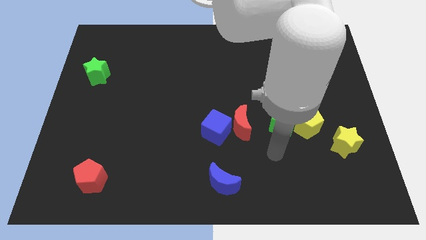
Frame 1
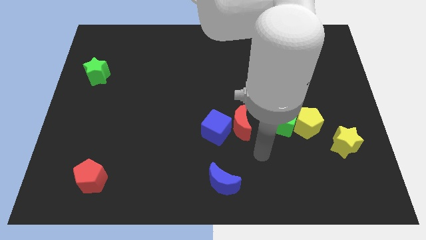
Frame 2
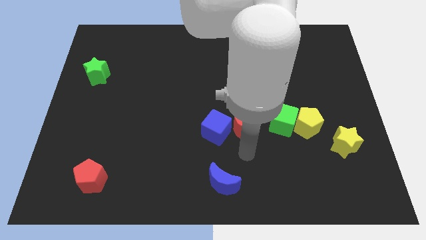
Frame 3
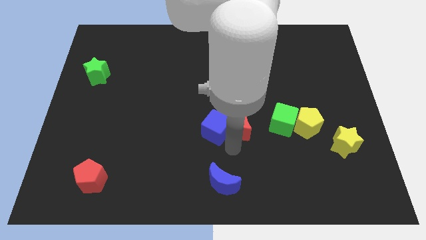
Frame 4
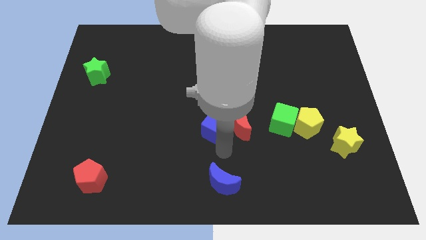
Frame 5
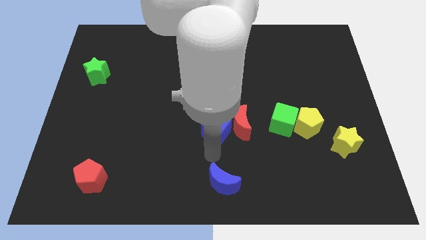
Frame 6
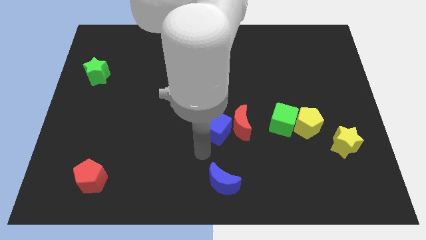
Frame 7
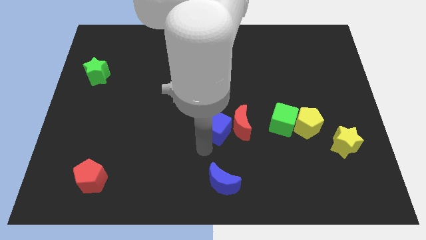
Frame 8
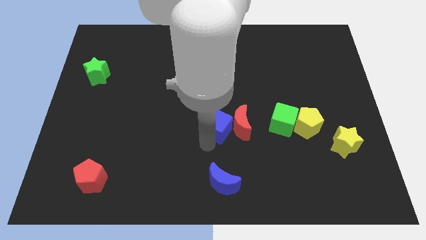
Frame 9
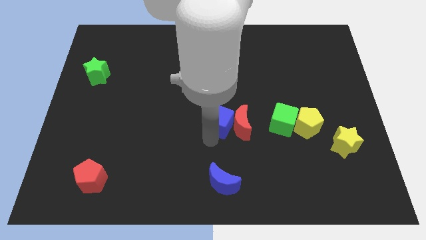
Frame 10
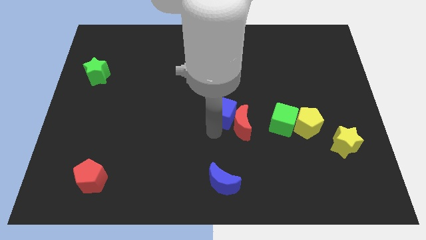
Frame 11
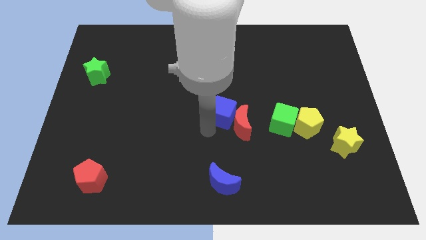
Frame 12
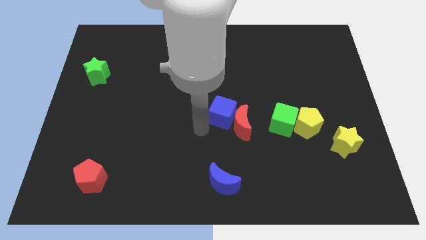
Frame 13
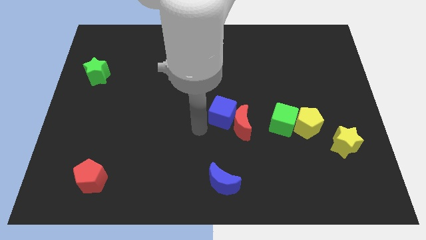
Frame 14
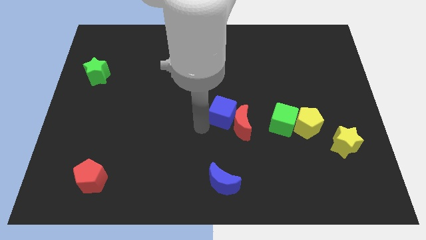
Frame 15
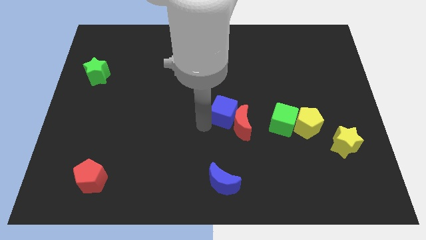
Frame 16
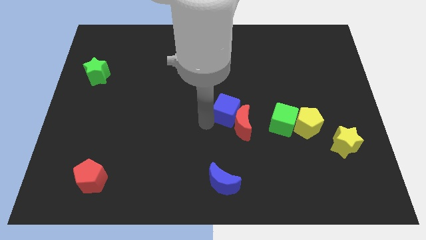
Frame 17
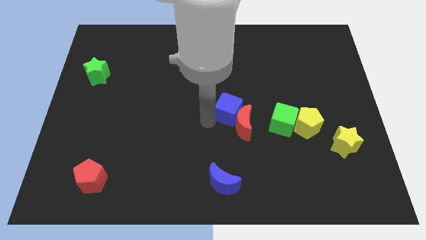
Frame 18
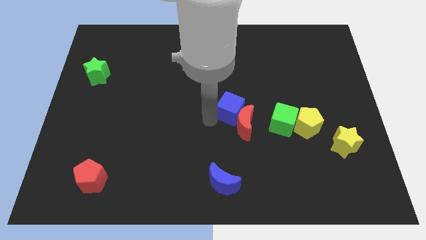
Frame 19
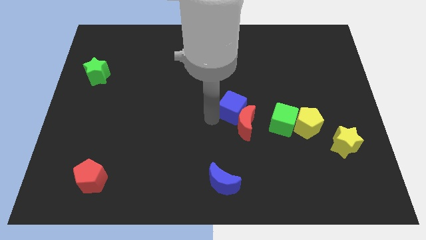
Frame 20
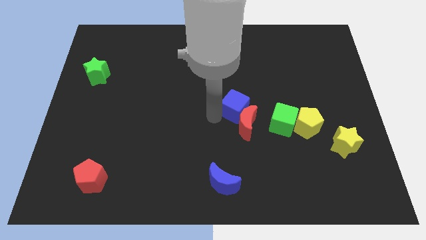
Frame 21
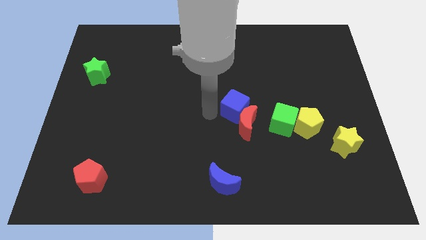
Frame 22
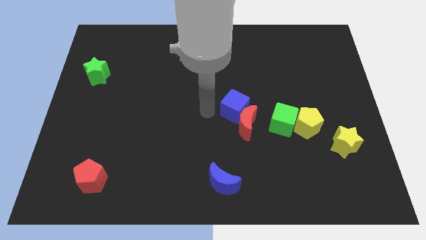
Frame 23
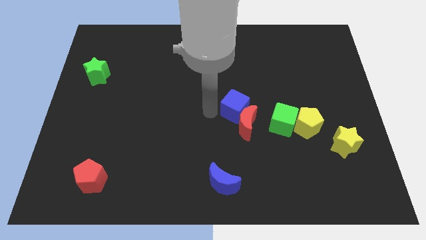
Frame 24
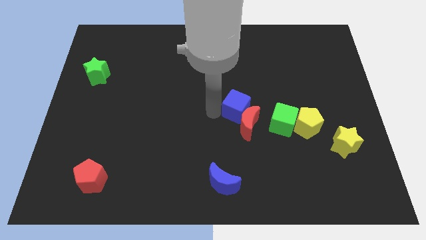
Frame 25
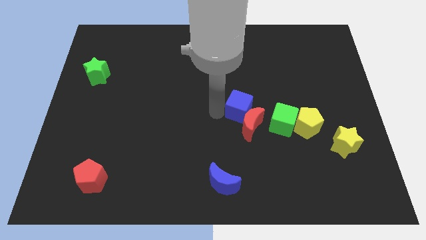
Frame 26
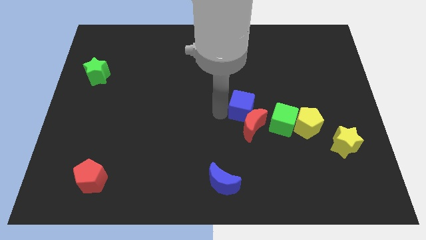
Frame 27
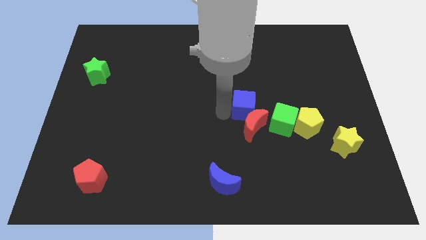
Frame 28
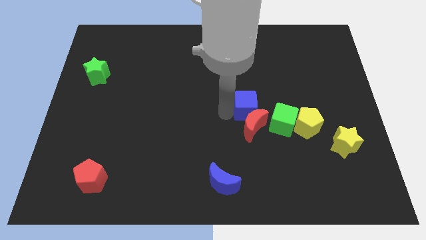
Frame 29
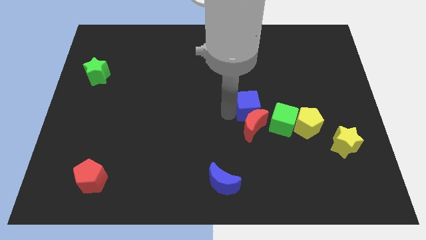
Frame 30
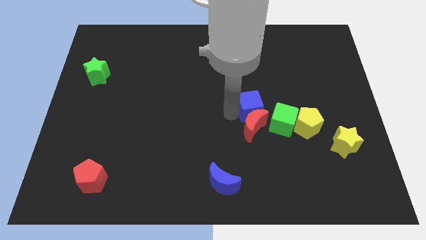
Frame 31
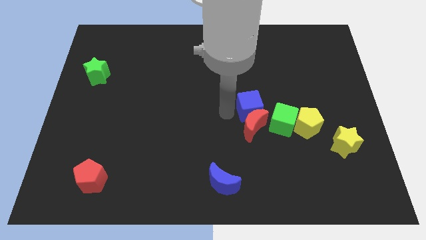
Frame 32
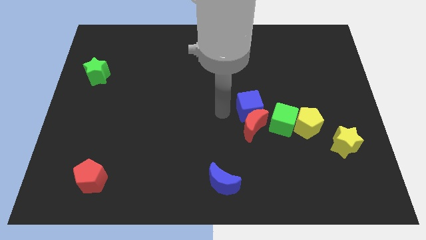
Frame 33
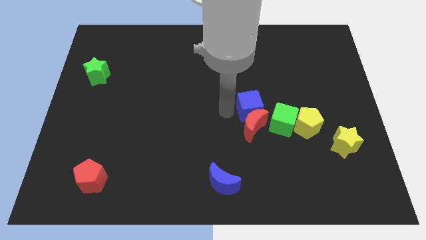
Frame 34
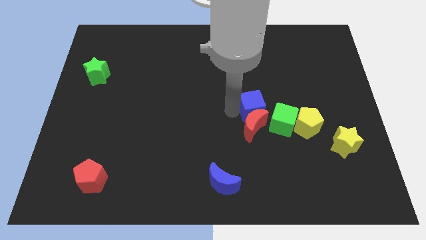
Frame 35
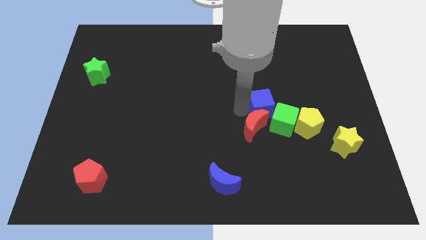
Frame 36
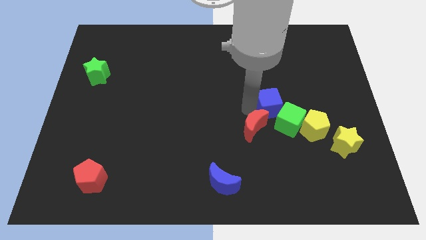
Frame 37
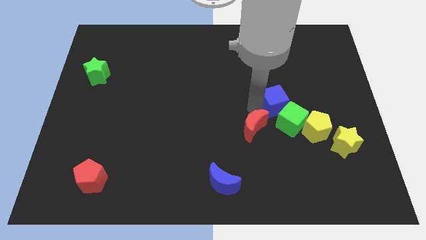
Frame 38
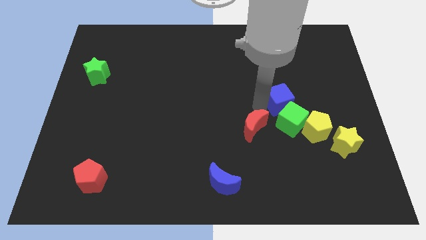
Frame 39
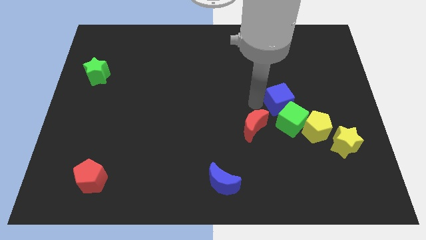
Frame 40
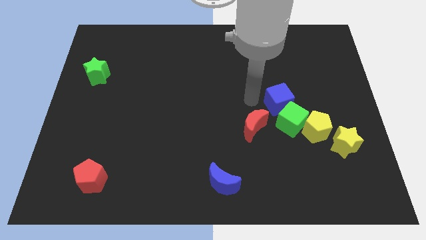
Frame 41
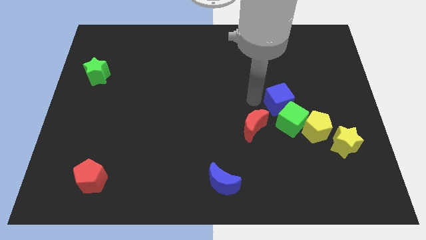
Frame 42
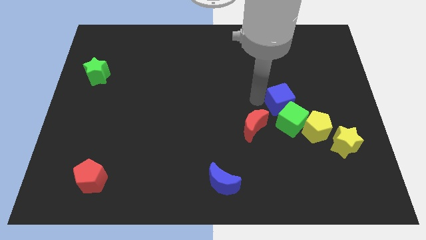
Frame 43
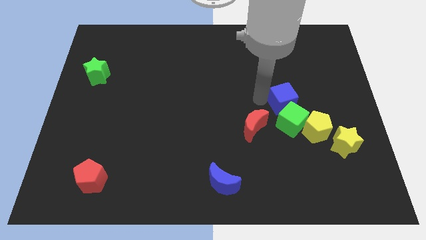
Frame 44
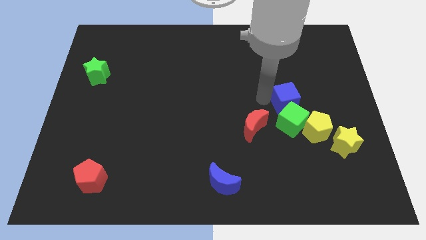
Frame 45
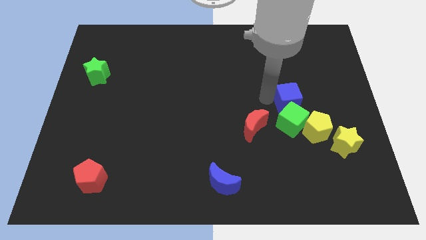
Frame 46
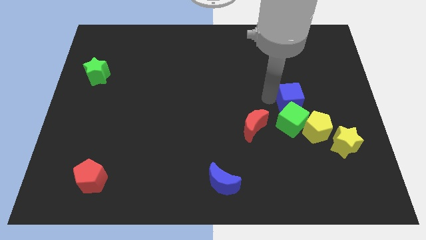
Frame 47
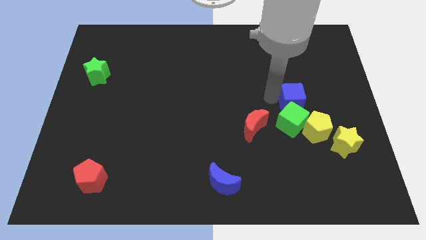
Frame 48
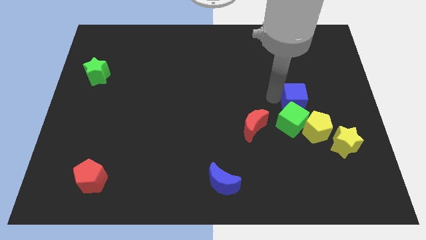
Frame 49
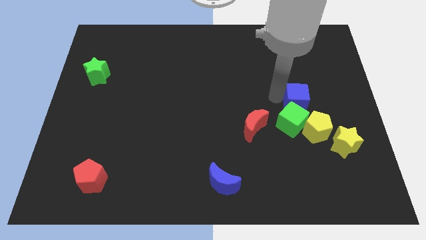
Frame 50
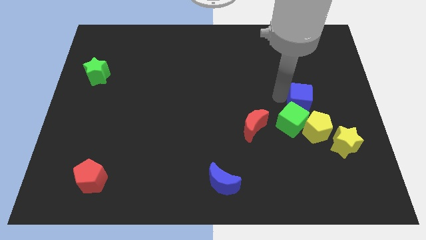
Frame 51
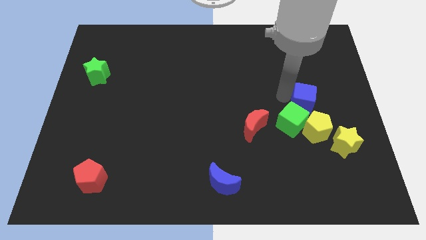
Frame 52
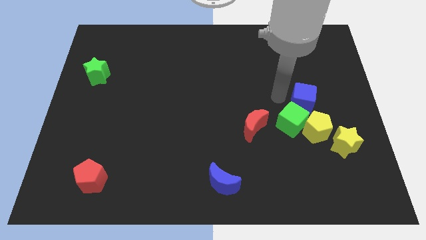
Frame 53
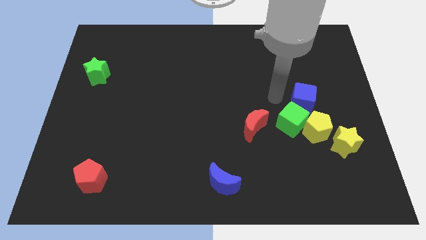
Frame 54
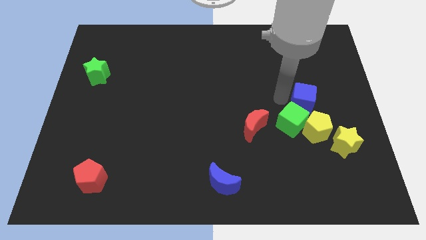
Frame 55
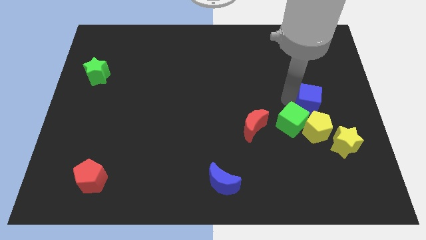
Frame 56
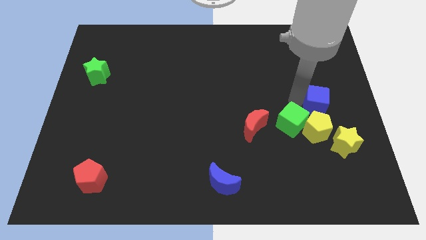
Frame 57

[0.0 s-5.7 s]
move the blue cube to the top of the yellow star

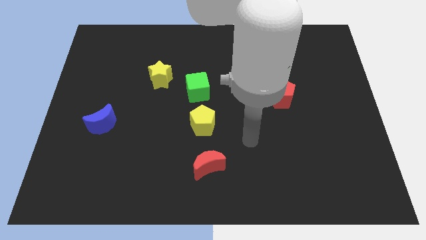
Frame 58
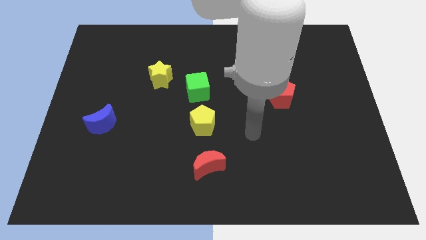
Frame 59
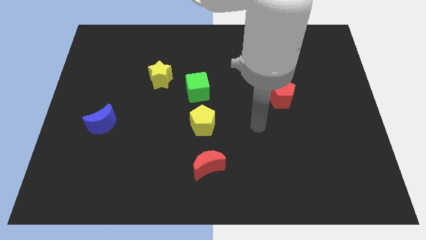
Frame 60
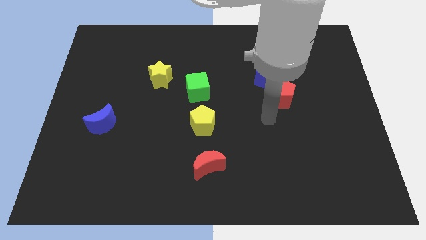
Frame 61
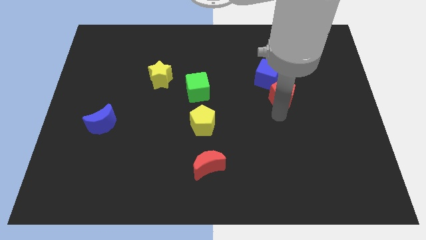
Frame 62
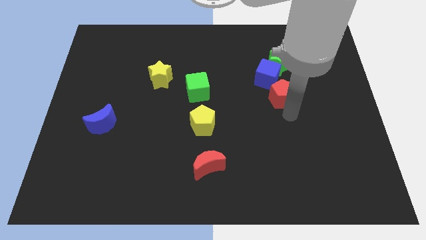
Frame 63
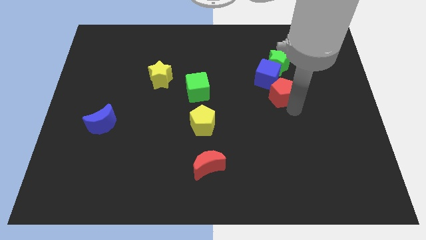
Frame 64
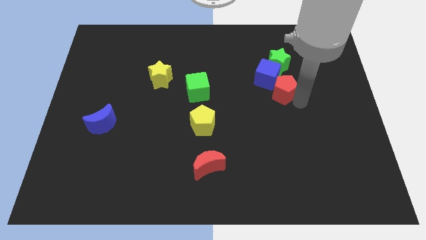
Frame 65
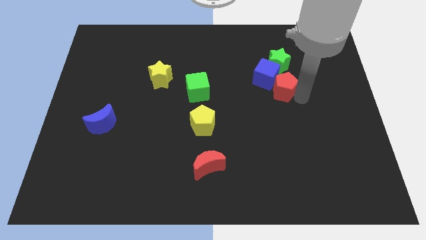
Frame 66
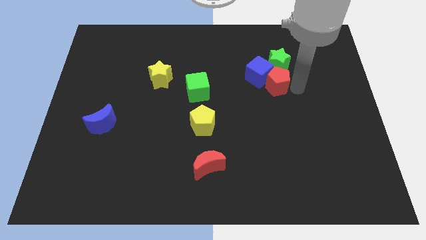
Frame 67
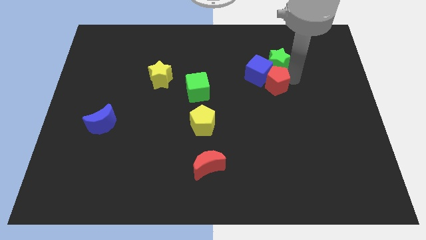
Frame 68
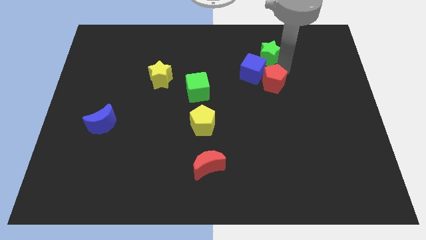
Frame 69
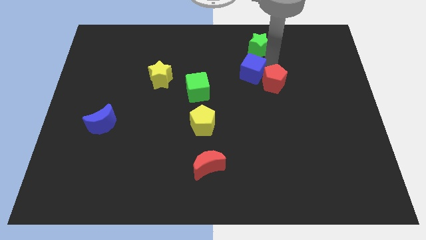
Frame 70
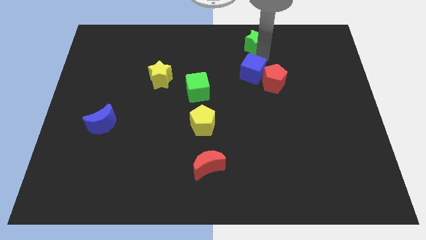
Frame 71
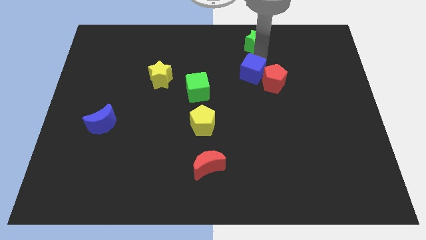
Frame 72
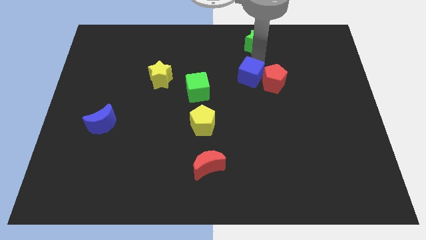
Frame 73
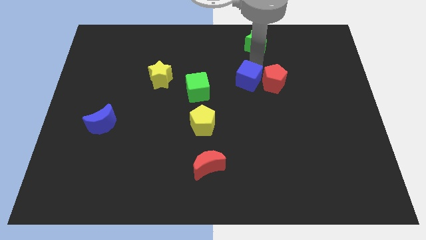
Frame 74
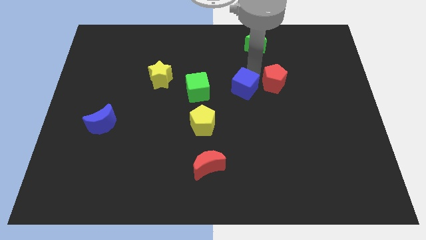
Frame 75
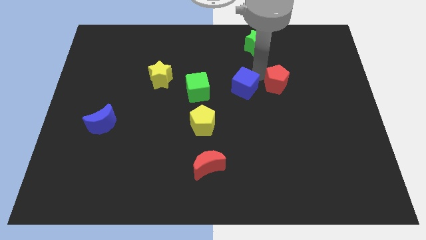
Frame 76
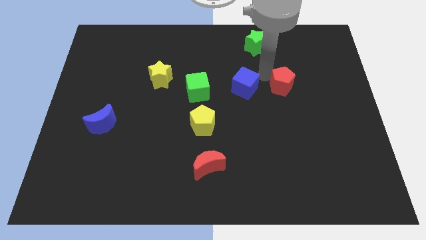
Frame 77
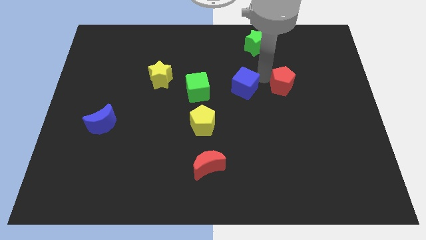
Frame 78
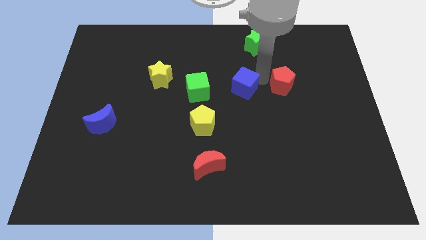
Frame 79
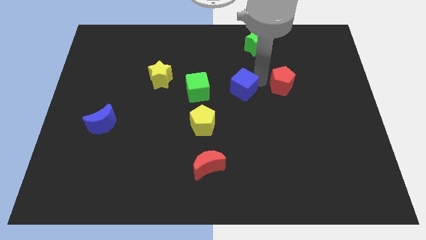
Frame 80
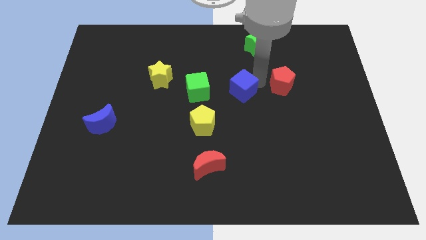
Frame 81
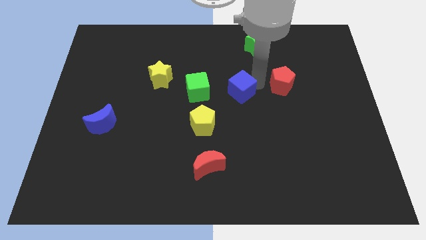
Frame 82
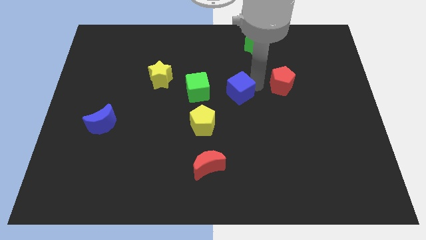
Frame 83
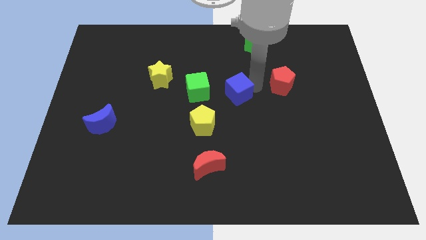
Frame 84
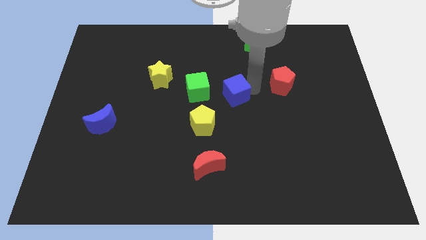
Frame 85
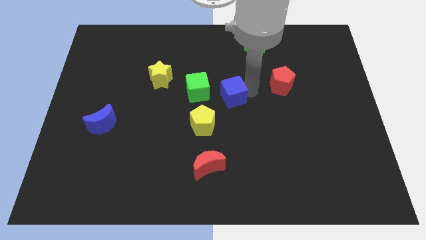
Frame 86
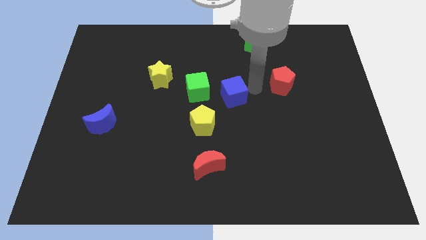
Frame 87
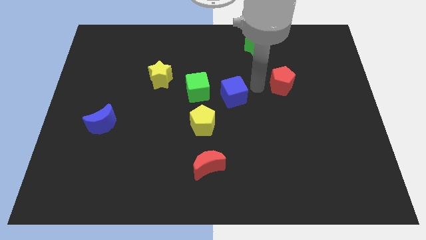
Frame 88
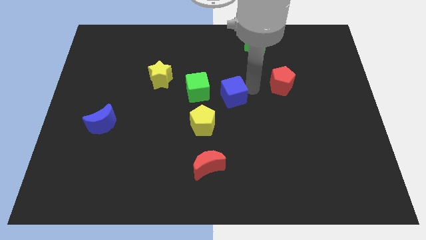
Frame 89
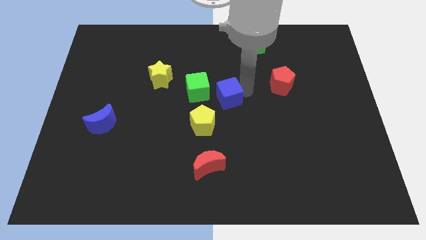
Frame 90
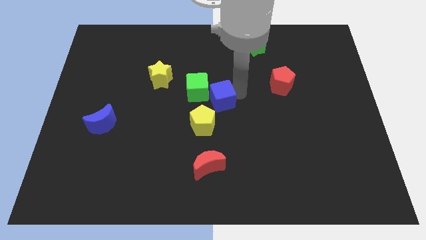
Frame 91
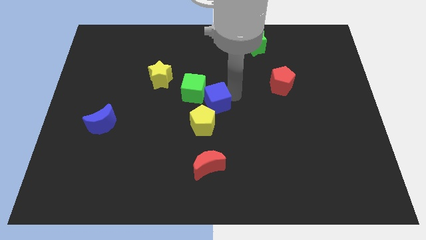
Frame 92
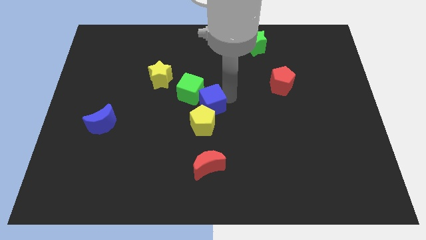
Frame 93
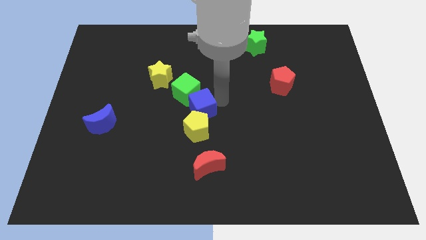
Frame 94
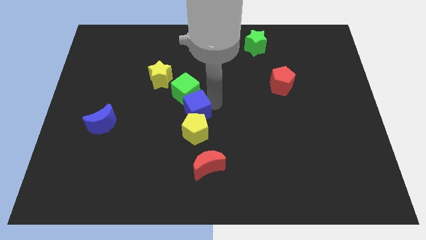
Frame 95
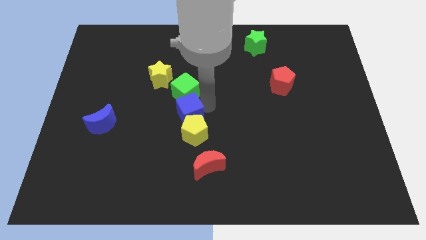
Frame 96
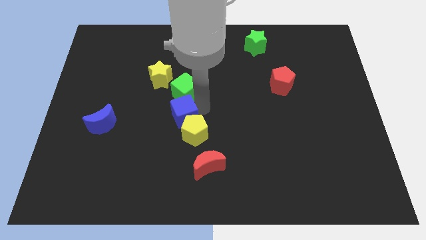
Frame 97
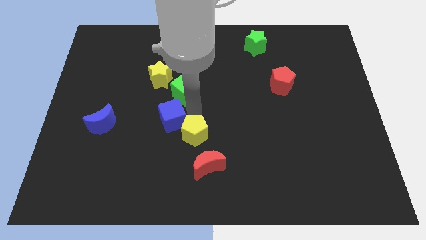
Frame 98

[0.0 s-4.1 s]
slide the blue cube to the right of the blue moon
